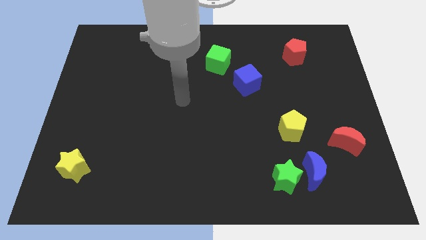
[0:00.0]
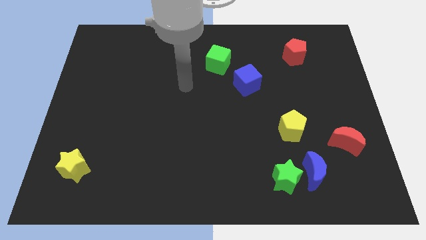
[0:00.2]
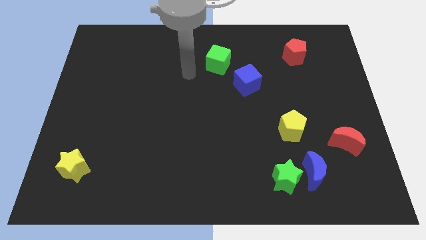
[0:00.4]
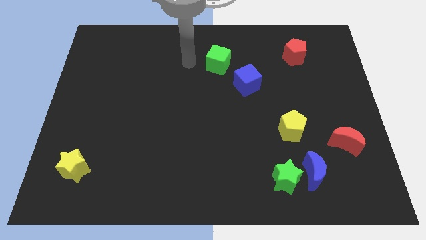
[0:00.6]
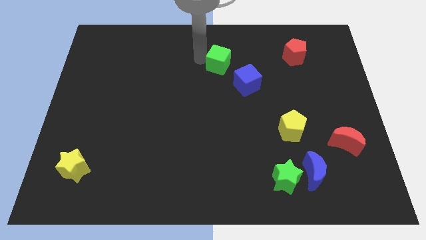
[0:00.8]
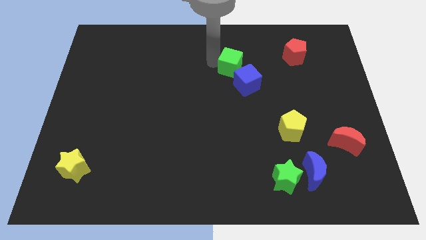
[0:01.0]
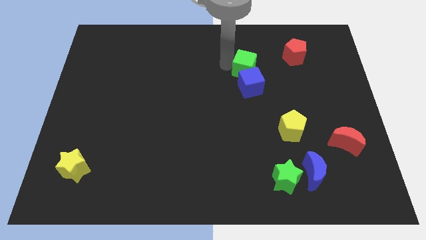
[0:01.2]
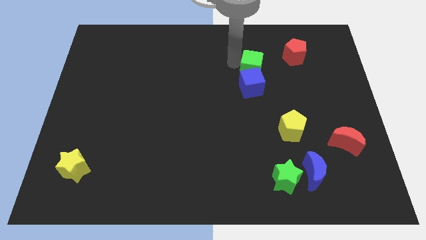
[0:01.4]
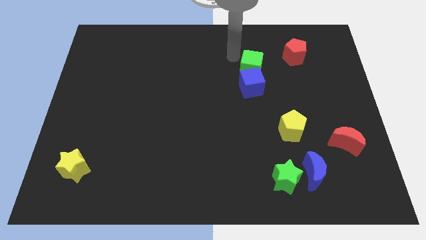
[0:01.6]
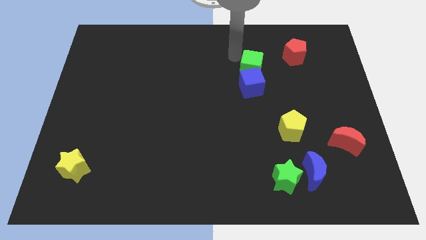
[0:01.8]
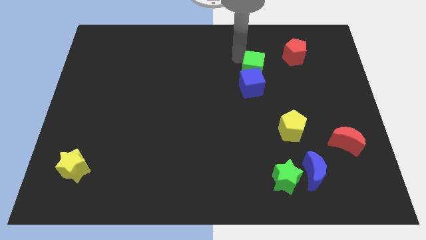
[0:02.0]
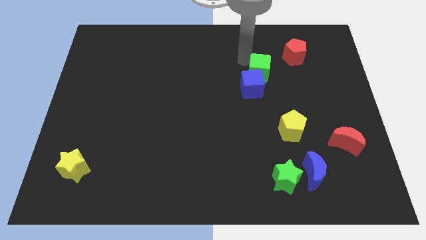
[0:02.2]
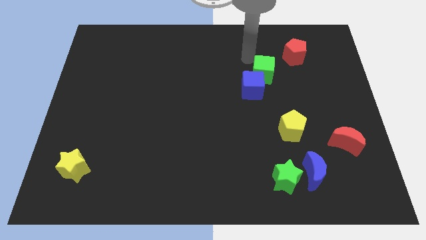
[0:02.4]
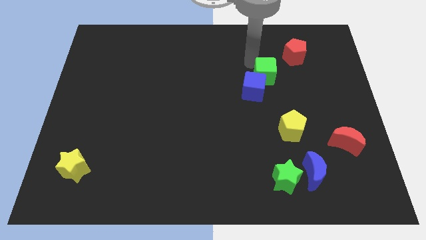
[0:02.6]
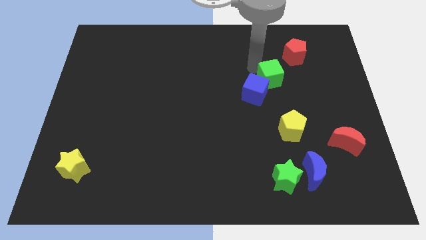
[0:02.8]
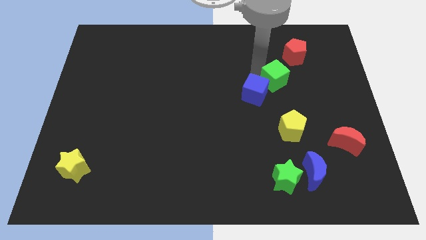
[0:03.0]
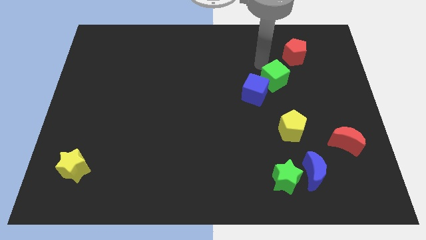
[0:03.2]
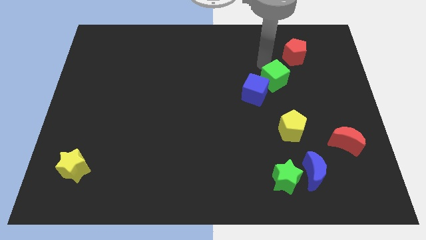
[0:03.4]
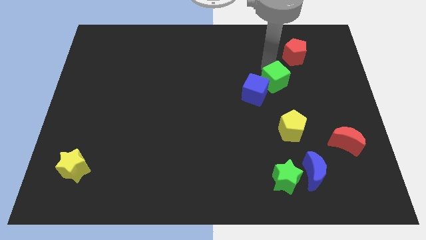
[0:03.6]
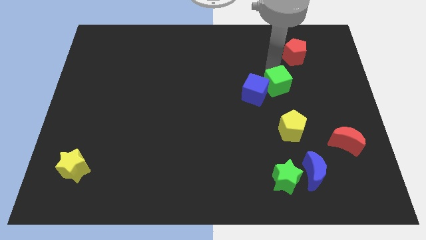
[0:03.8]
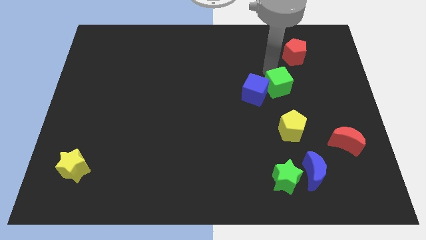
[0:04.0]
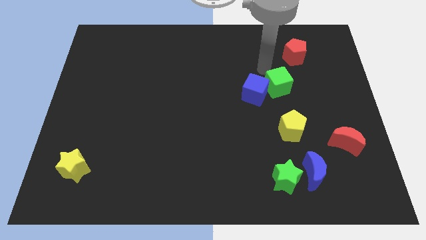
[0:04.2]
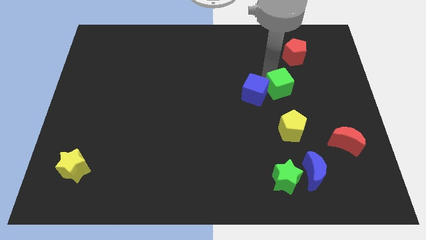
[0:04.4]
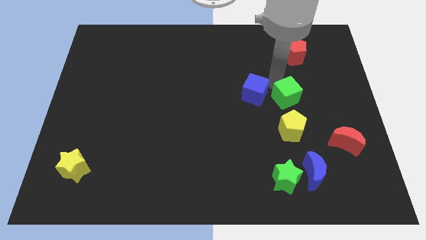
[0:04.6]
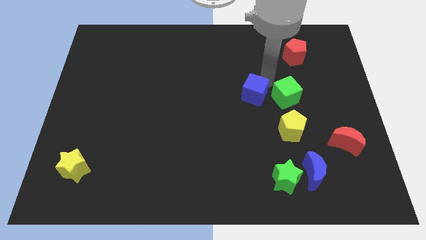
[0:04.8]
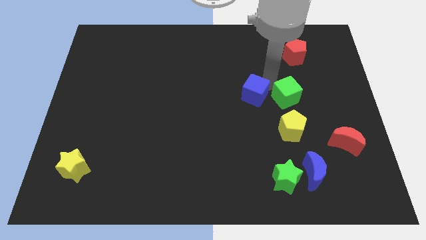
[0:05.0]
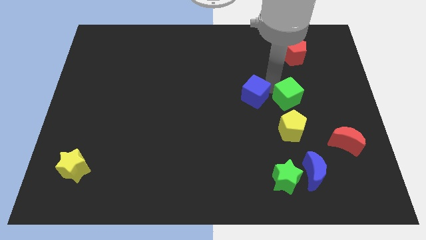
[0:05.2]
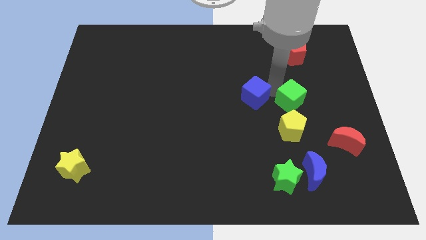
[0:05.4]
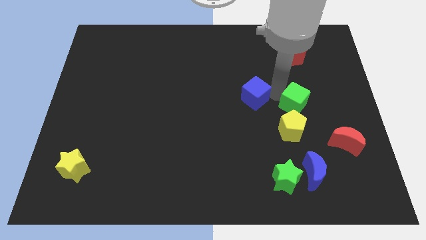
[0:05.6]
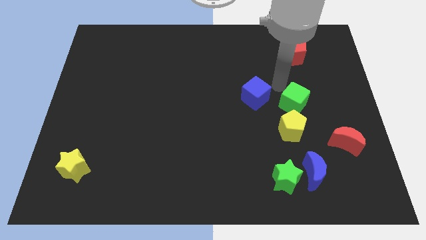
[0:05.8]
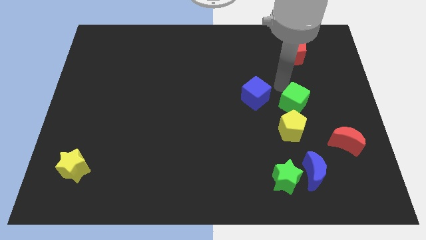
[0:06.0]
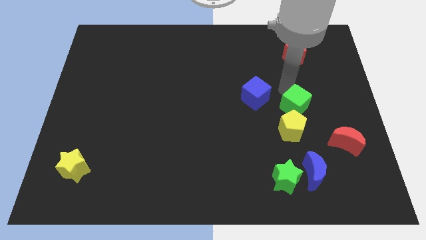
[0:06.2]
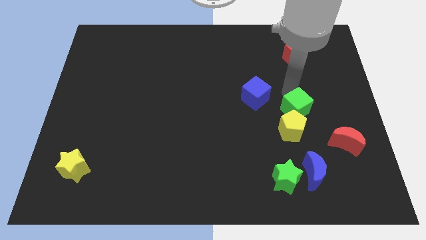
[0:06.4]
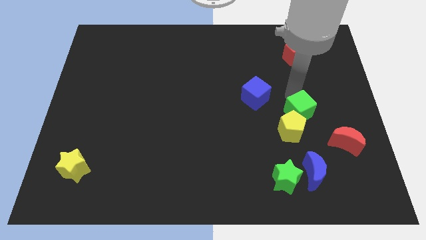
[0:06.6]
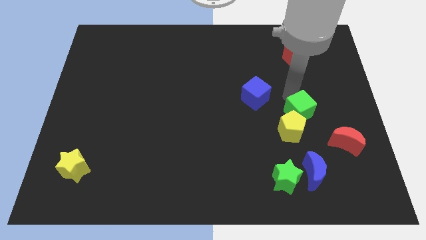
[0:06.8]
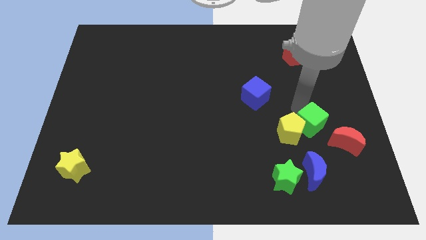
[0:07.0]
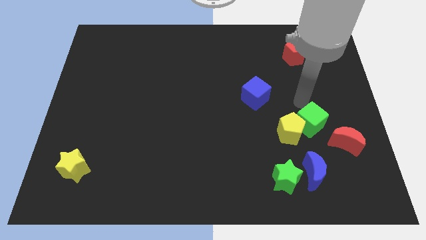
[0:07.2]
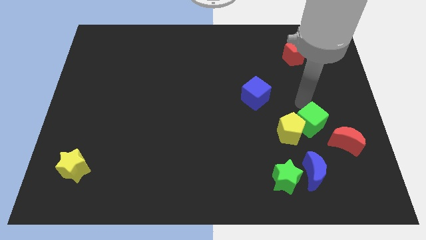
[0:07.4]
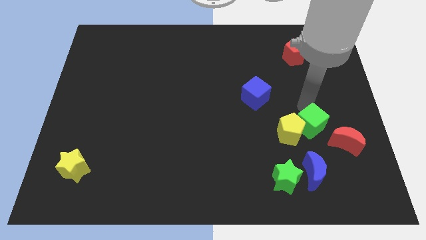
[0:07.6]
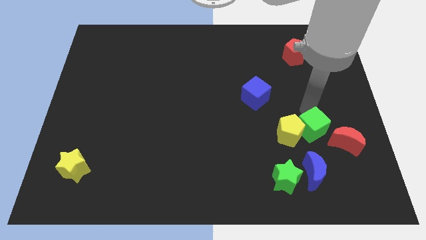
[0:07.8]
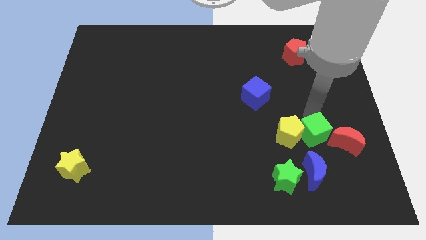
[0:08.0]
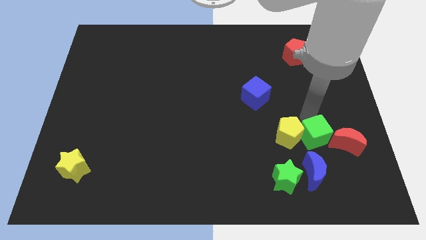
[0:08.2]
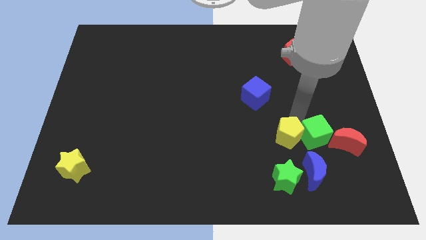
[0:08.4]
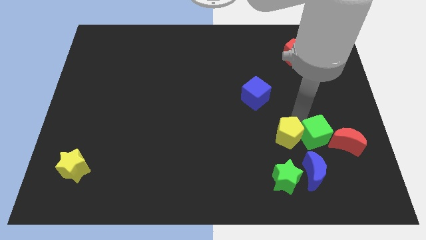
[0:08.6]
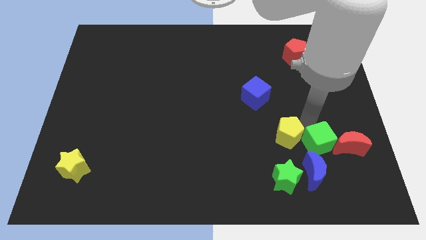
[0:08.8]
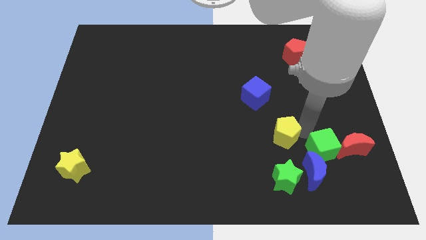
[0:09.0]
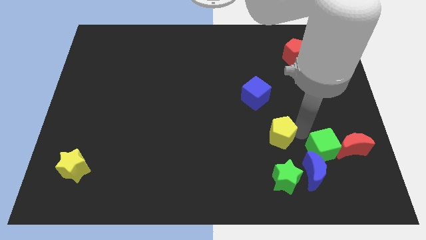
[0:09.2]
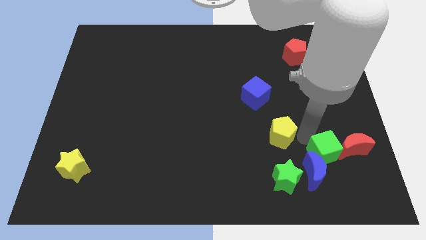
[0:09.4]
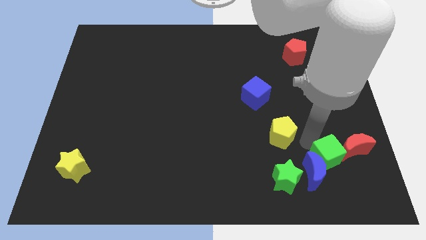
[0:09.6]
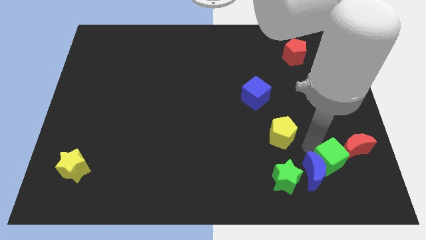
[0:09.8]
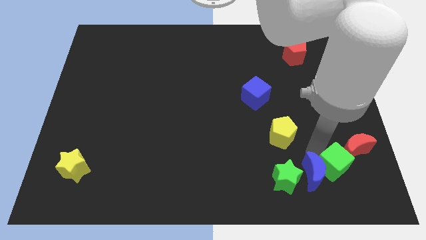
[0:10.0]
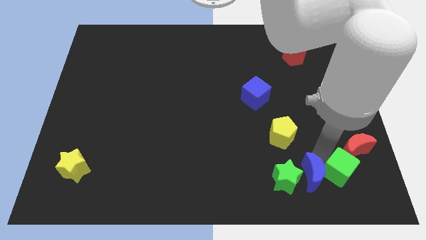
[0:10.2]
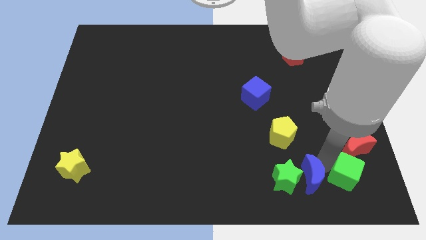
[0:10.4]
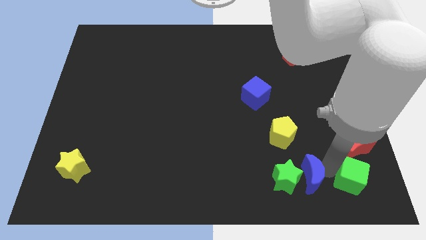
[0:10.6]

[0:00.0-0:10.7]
put the green cube to the lower right corner

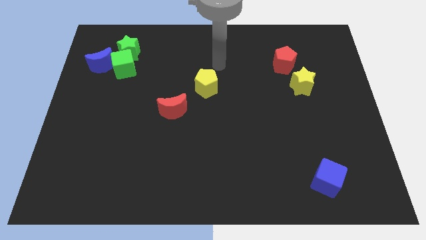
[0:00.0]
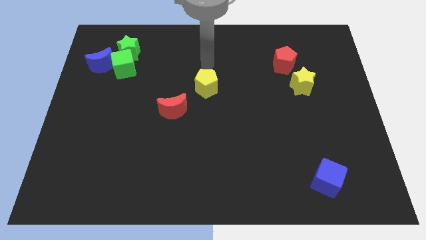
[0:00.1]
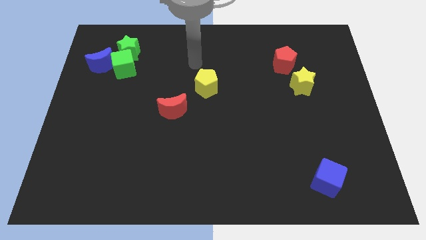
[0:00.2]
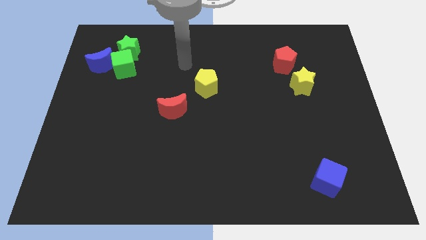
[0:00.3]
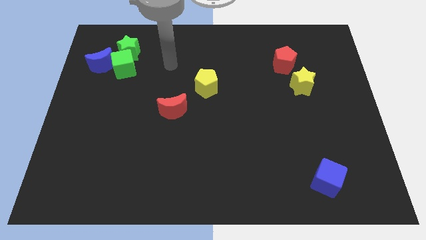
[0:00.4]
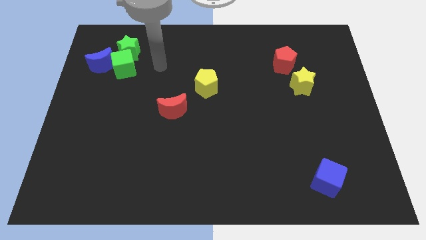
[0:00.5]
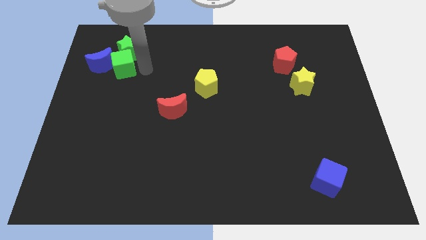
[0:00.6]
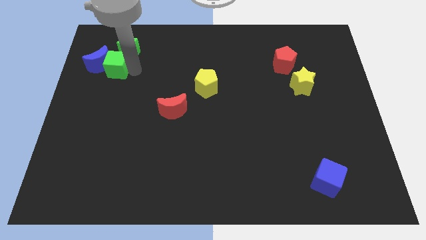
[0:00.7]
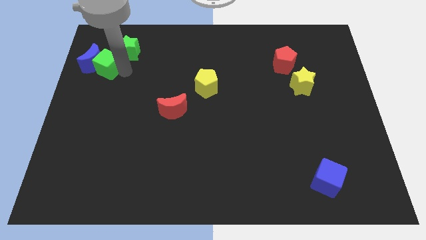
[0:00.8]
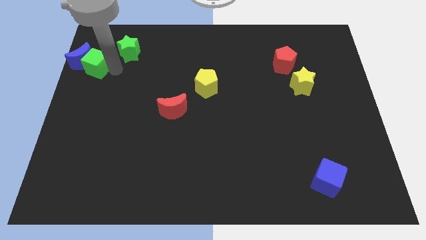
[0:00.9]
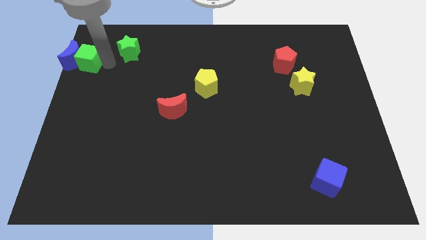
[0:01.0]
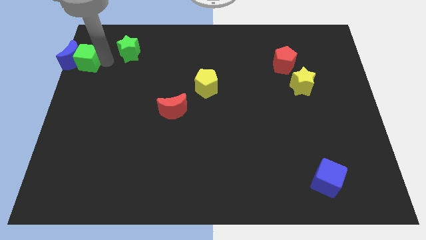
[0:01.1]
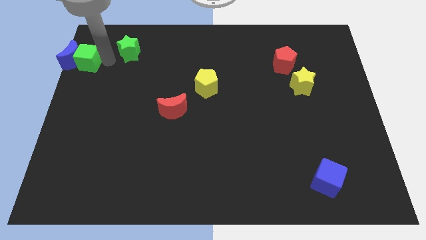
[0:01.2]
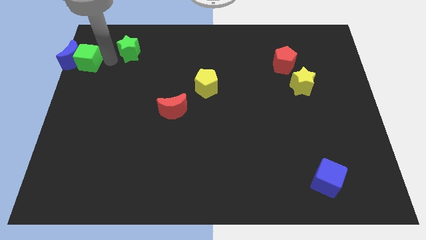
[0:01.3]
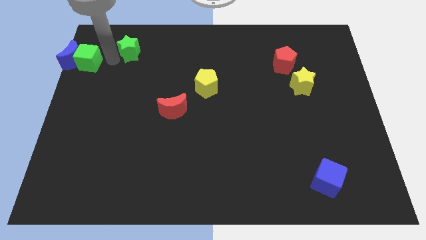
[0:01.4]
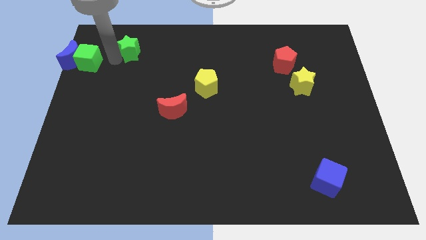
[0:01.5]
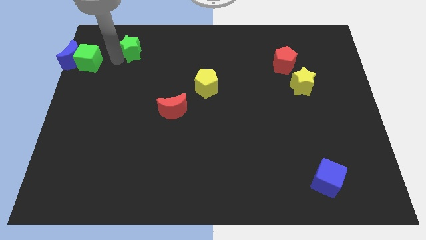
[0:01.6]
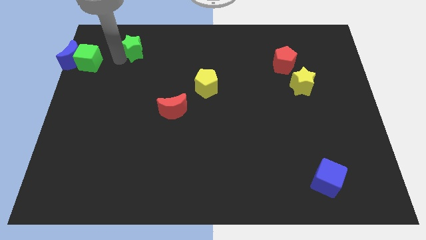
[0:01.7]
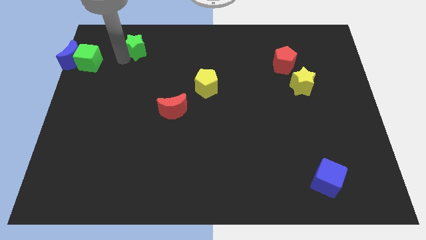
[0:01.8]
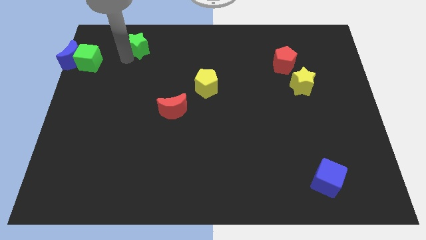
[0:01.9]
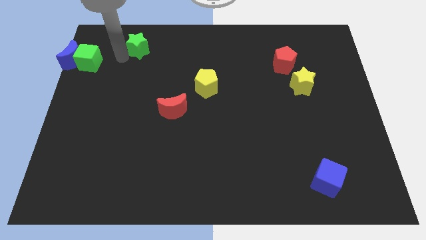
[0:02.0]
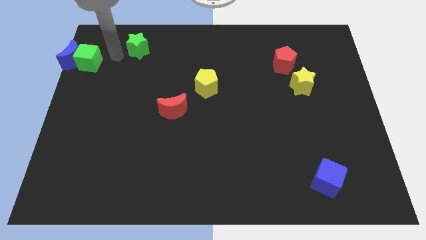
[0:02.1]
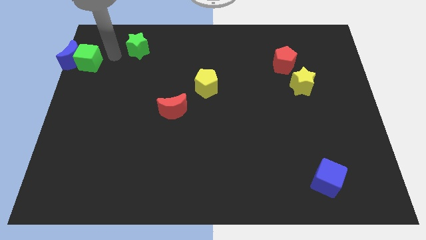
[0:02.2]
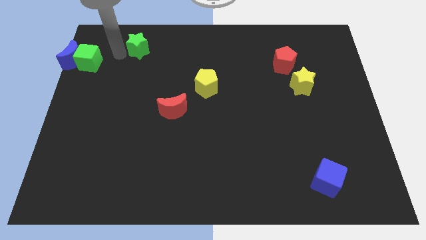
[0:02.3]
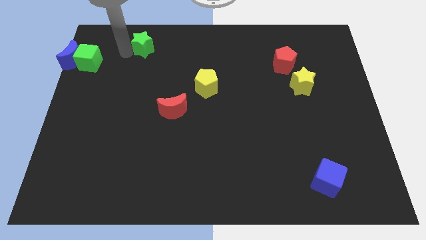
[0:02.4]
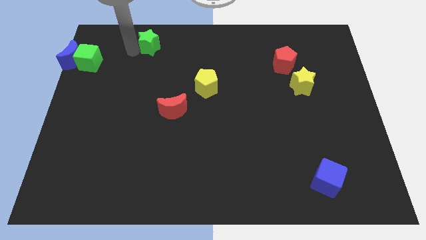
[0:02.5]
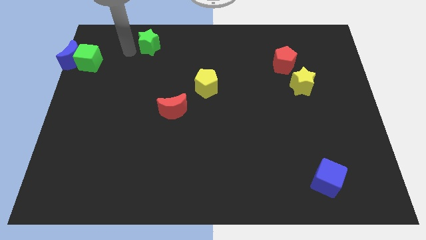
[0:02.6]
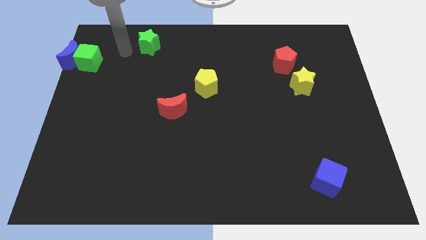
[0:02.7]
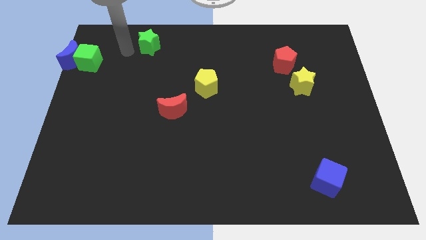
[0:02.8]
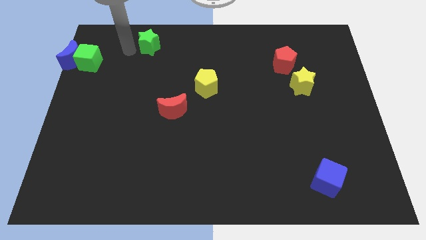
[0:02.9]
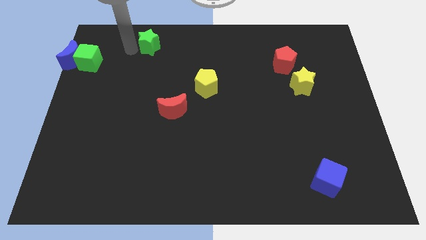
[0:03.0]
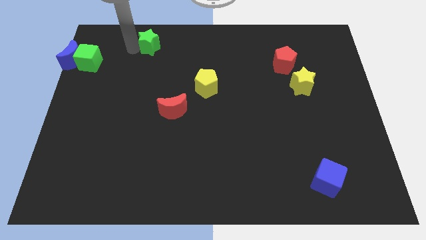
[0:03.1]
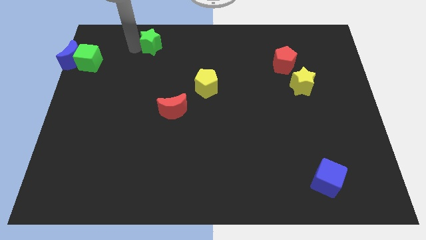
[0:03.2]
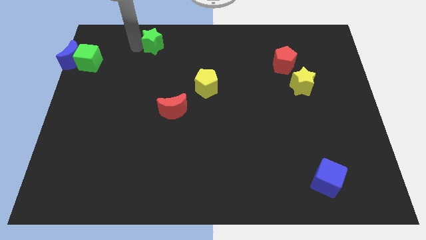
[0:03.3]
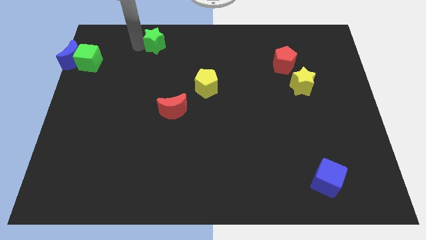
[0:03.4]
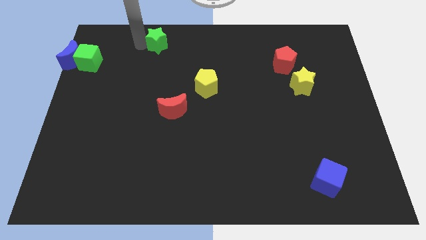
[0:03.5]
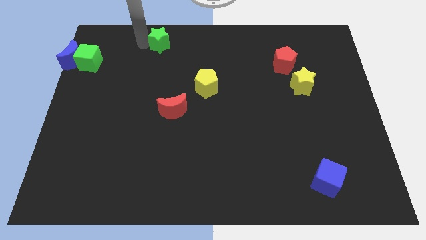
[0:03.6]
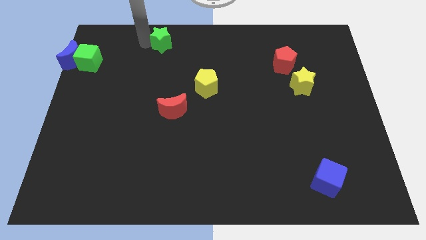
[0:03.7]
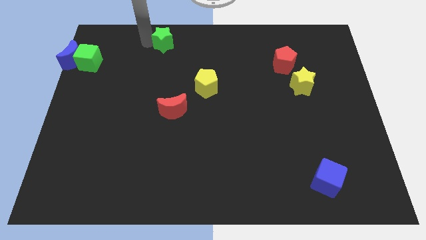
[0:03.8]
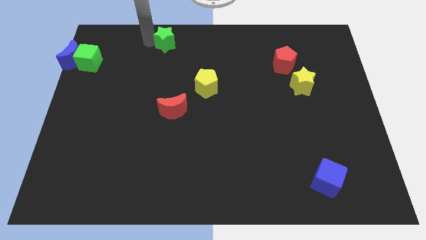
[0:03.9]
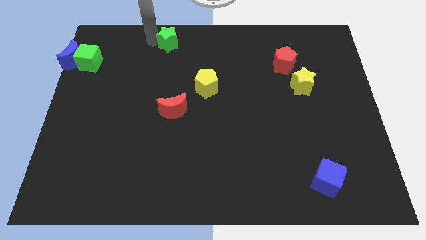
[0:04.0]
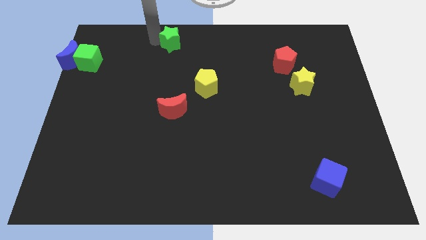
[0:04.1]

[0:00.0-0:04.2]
slide the green star to the top side
